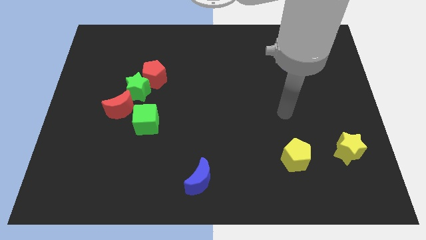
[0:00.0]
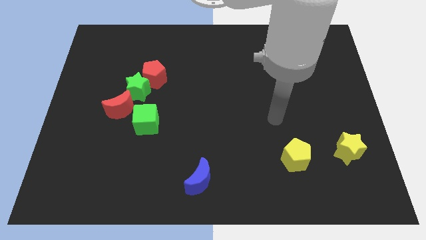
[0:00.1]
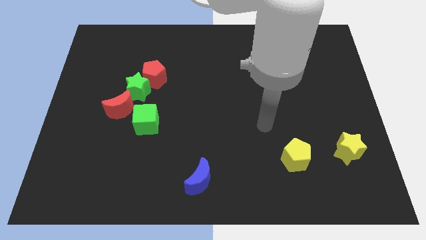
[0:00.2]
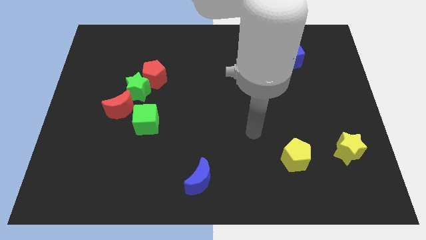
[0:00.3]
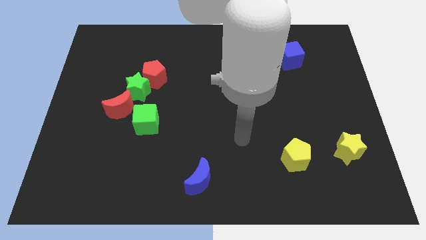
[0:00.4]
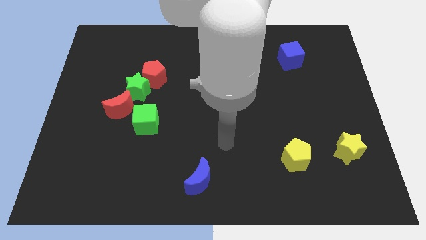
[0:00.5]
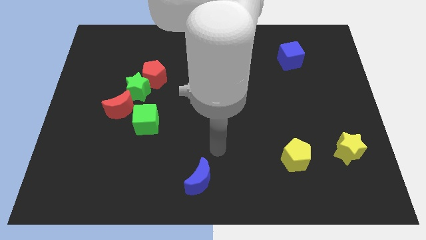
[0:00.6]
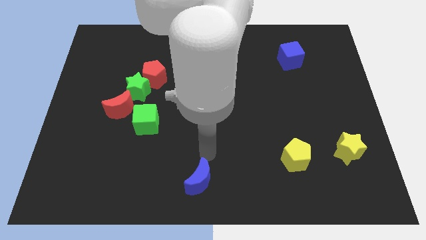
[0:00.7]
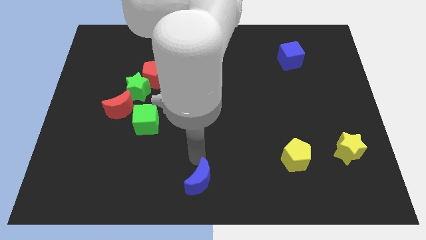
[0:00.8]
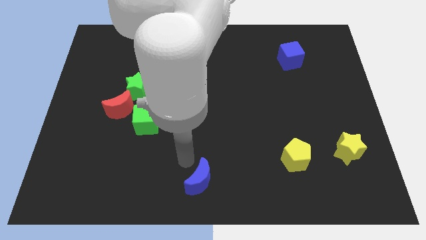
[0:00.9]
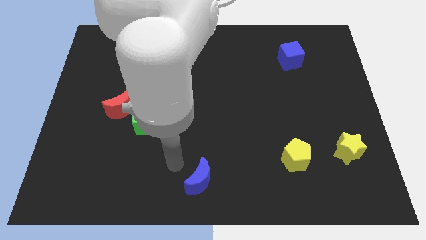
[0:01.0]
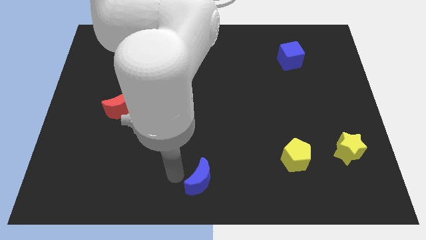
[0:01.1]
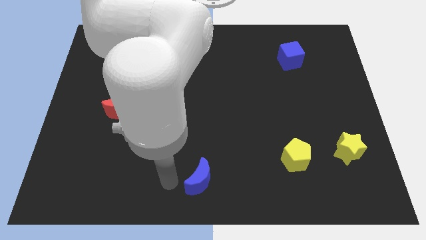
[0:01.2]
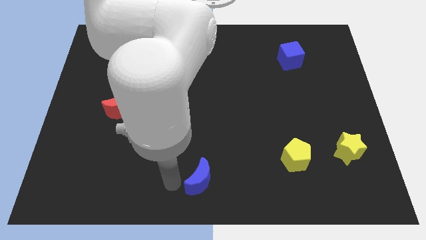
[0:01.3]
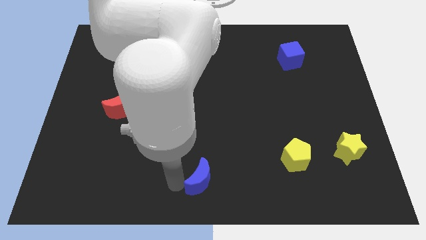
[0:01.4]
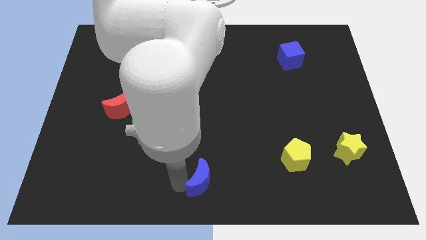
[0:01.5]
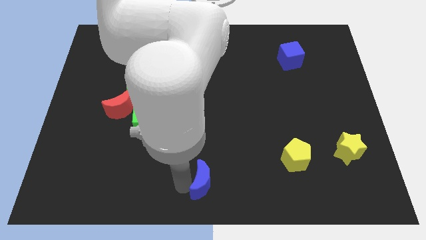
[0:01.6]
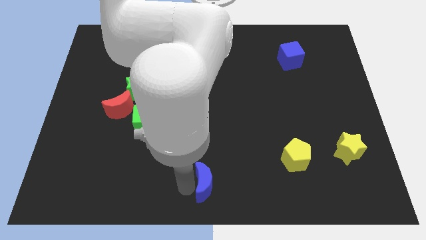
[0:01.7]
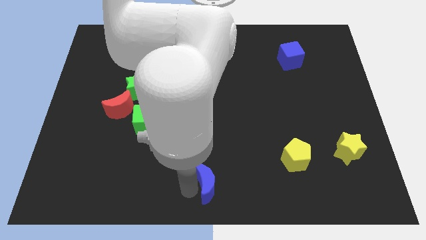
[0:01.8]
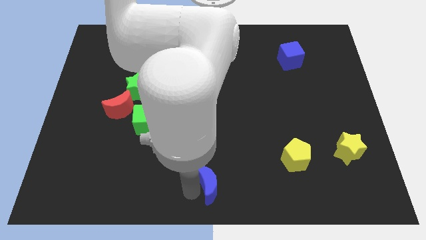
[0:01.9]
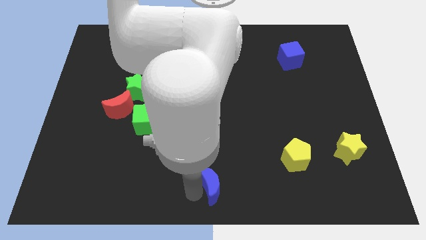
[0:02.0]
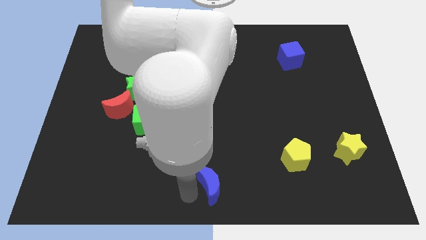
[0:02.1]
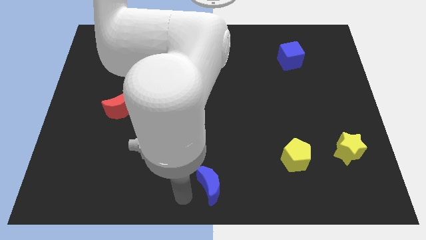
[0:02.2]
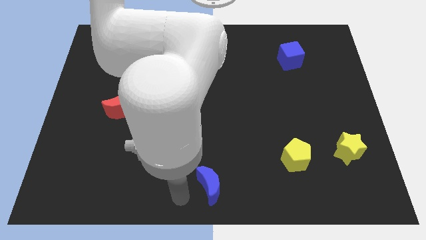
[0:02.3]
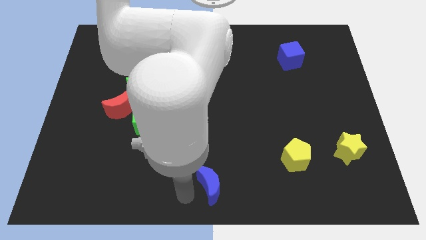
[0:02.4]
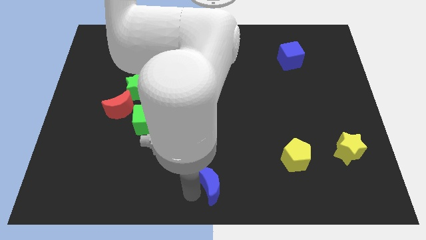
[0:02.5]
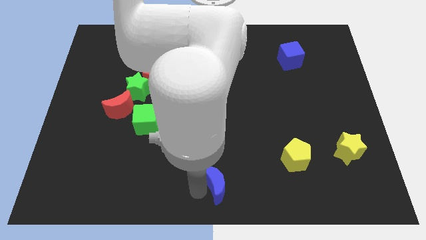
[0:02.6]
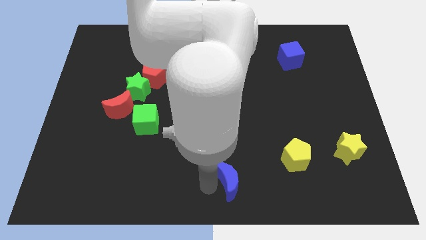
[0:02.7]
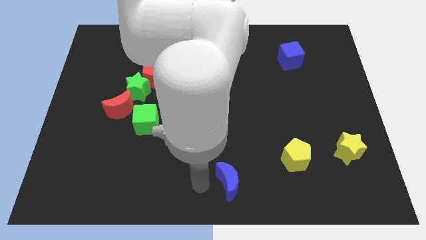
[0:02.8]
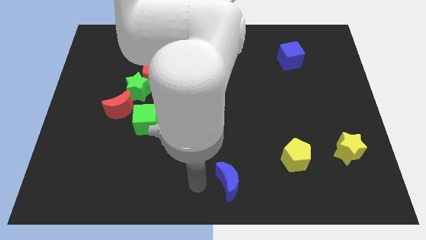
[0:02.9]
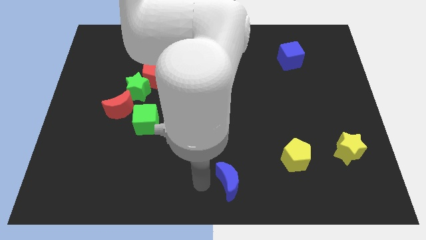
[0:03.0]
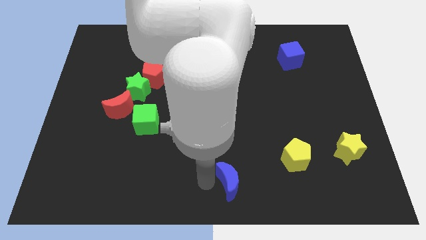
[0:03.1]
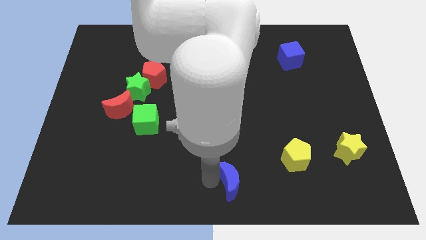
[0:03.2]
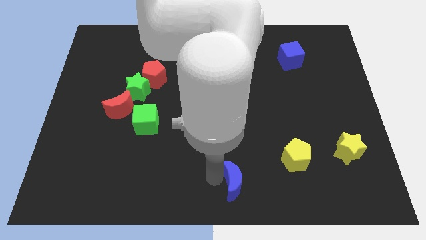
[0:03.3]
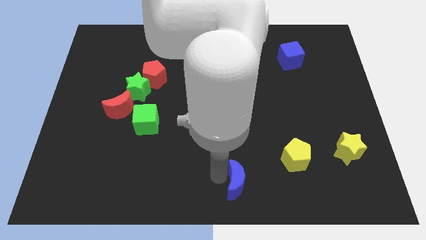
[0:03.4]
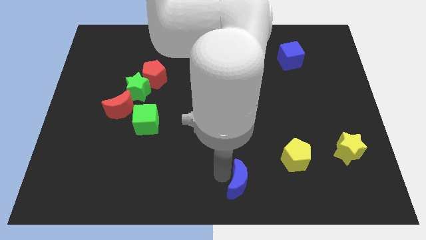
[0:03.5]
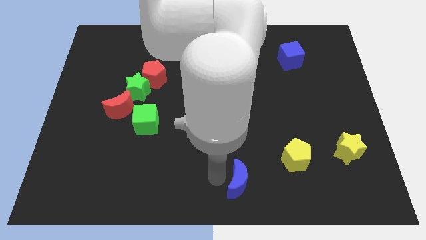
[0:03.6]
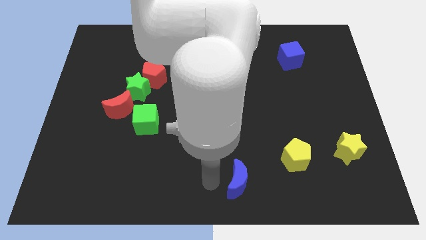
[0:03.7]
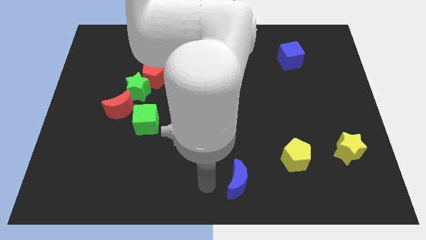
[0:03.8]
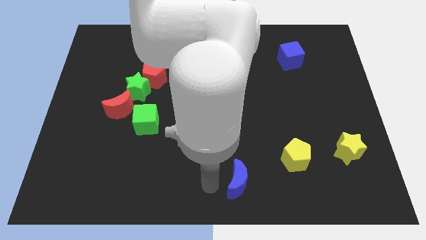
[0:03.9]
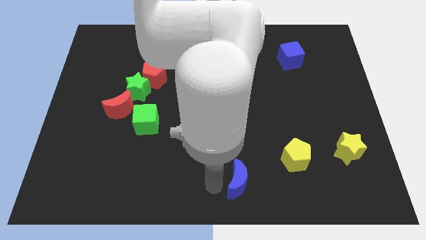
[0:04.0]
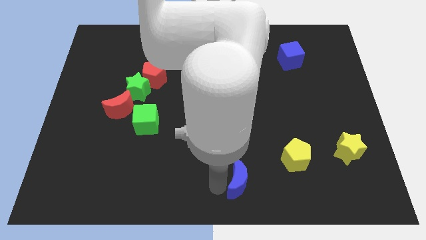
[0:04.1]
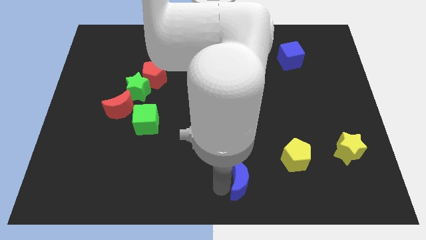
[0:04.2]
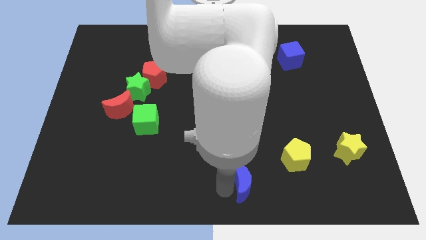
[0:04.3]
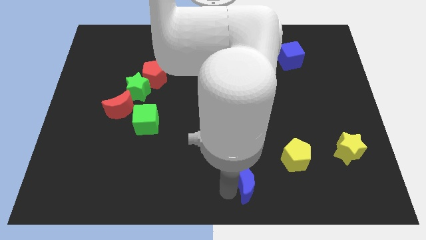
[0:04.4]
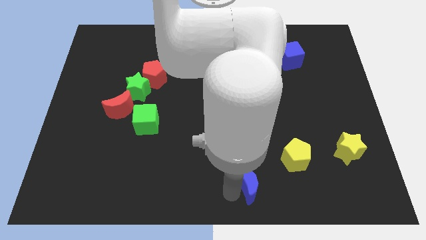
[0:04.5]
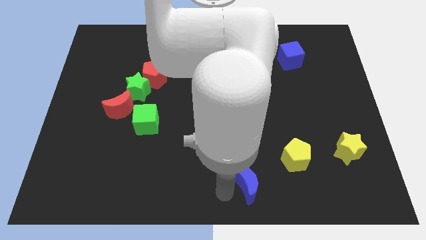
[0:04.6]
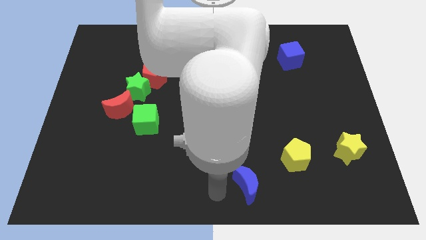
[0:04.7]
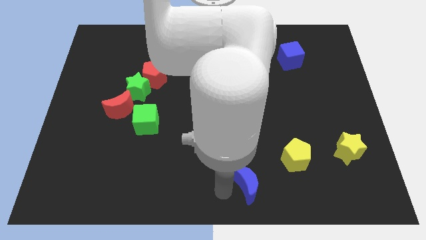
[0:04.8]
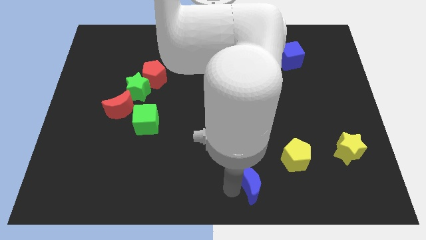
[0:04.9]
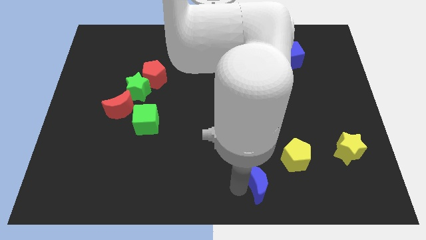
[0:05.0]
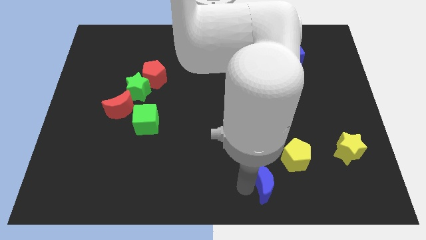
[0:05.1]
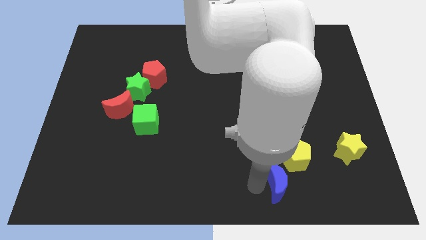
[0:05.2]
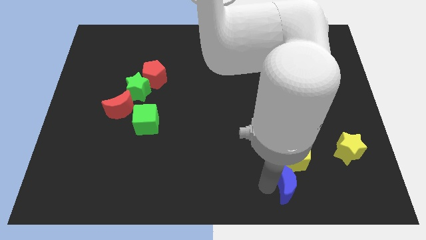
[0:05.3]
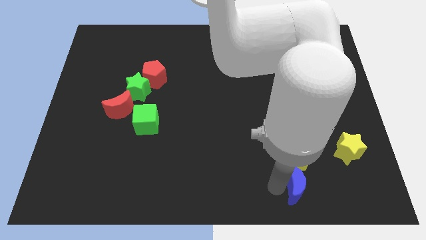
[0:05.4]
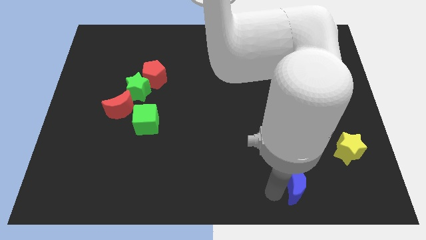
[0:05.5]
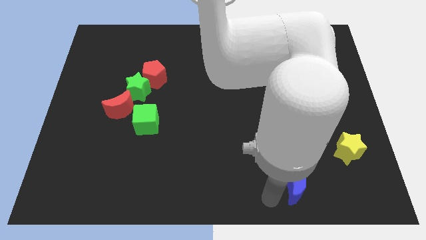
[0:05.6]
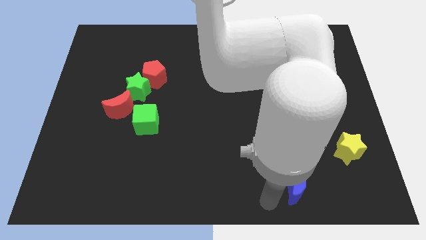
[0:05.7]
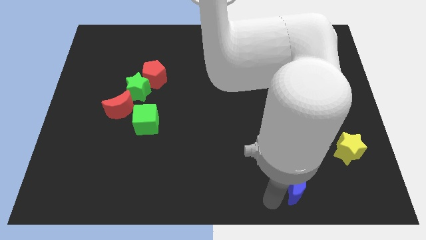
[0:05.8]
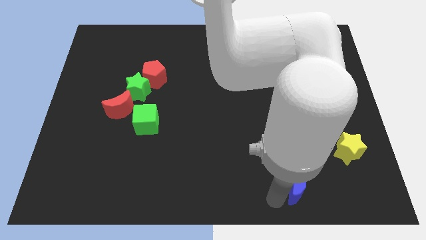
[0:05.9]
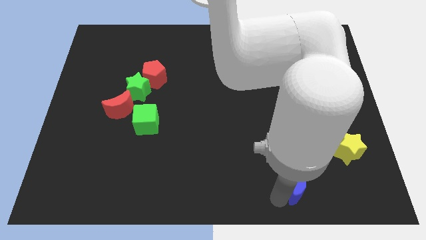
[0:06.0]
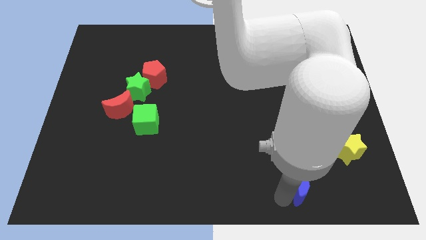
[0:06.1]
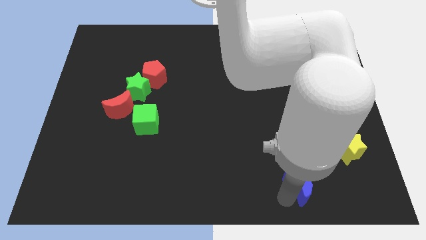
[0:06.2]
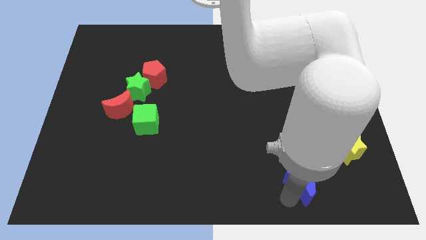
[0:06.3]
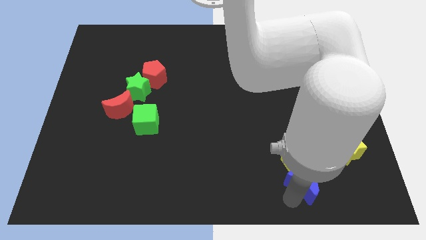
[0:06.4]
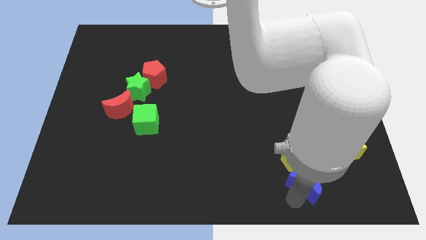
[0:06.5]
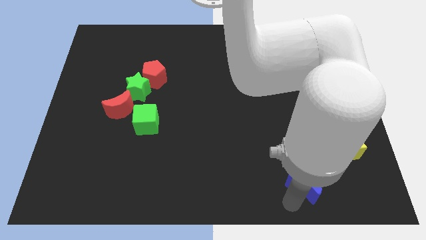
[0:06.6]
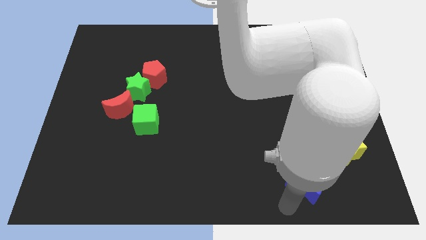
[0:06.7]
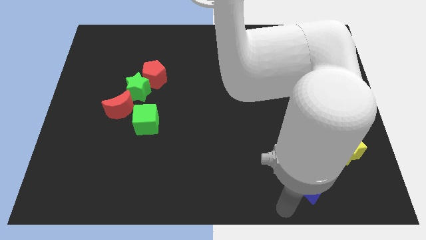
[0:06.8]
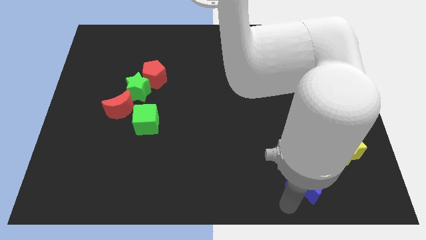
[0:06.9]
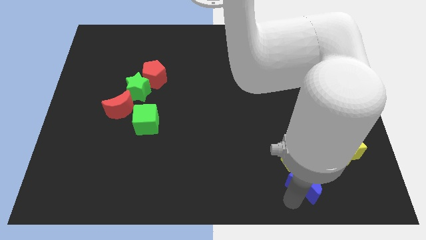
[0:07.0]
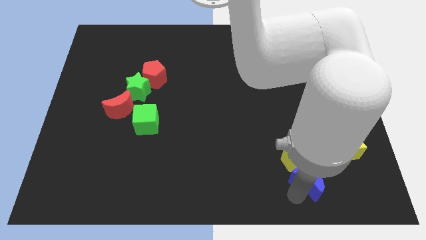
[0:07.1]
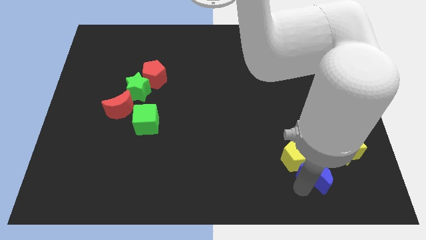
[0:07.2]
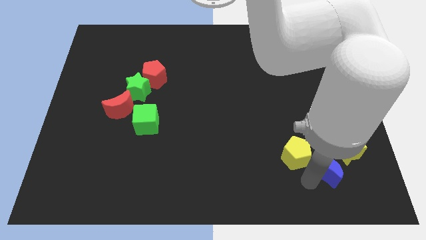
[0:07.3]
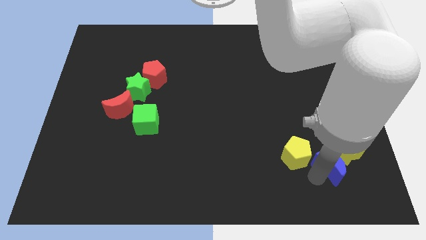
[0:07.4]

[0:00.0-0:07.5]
put the blue moon towards the yellow star

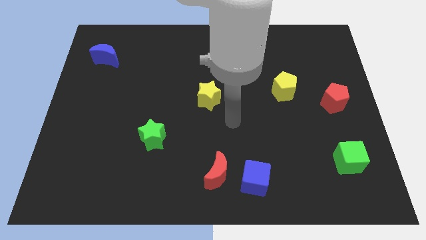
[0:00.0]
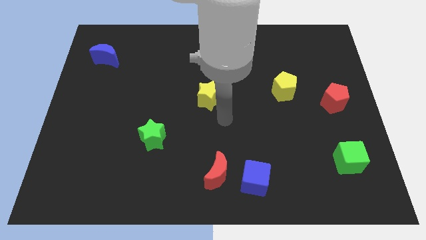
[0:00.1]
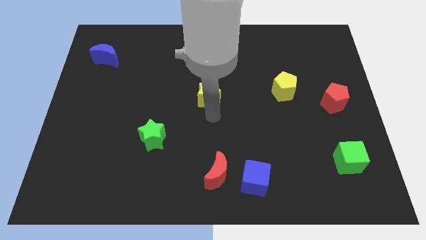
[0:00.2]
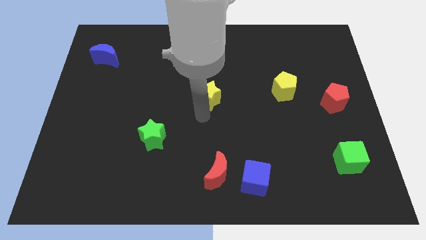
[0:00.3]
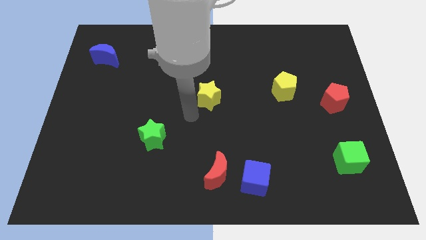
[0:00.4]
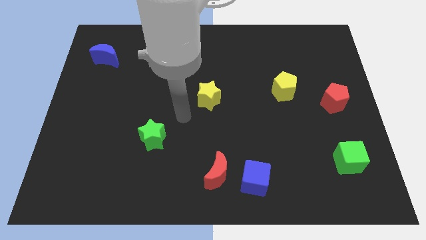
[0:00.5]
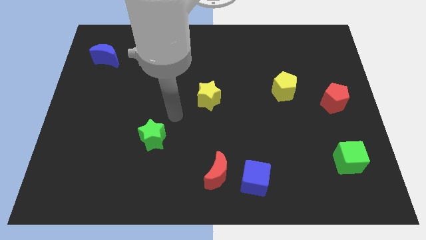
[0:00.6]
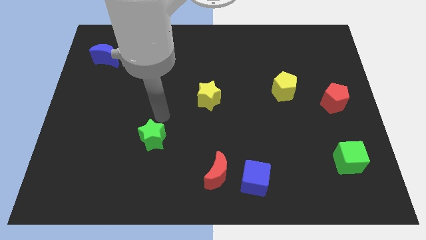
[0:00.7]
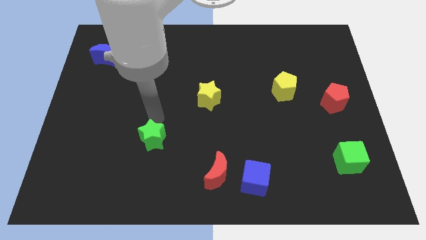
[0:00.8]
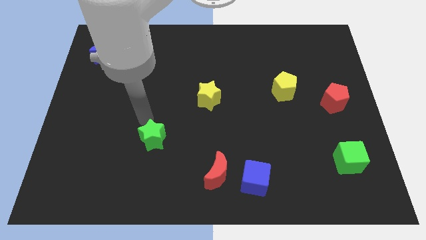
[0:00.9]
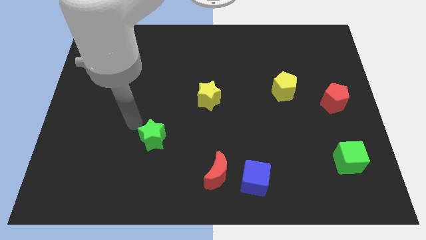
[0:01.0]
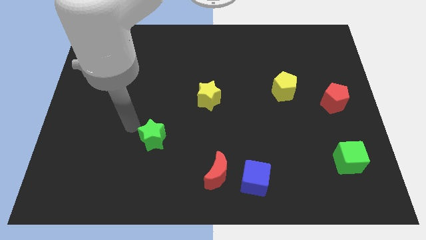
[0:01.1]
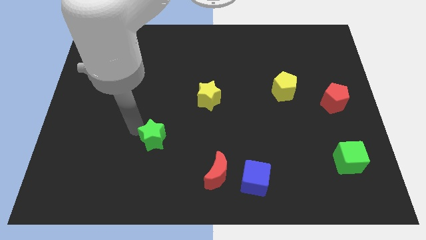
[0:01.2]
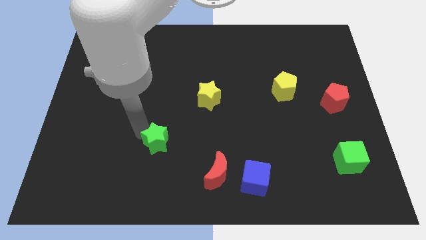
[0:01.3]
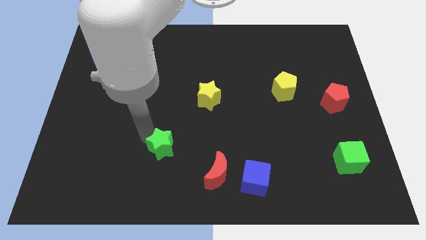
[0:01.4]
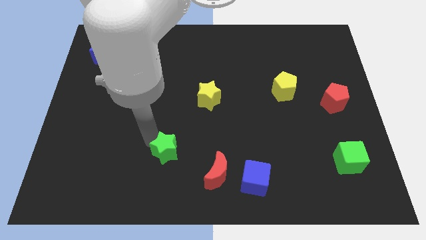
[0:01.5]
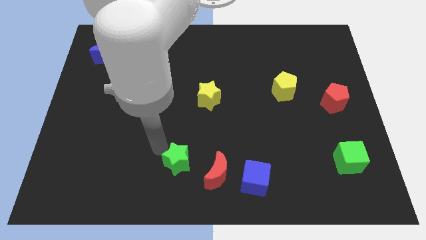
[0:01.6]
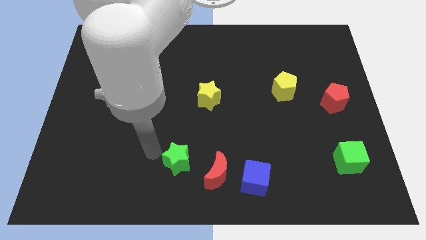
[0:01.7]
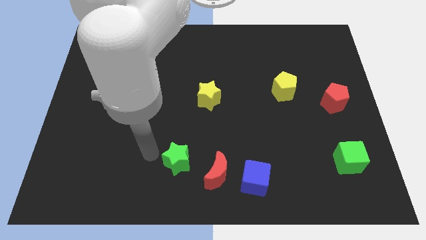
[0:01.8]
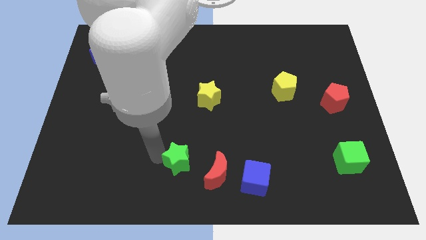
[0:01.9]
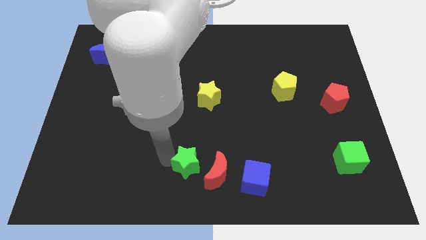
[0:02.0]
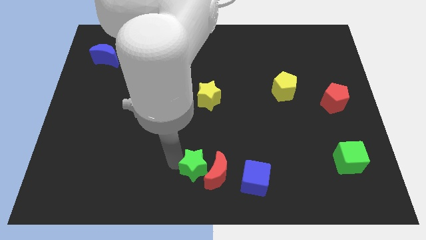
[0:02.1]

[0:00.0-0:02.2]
slide the green star towards the red moon
